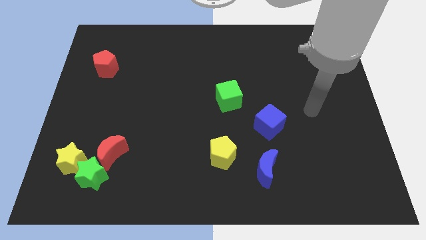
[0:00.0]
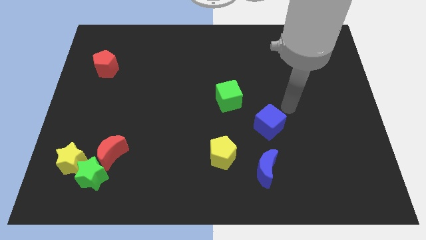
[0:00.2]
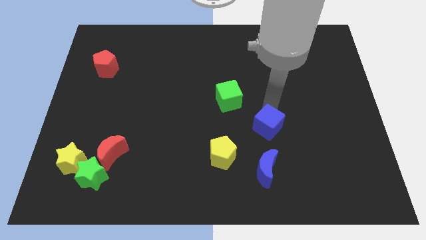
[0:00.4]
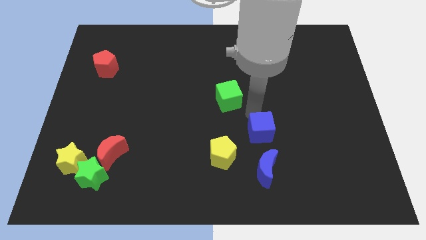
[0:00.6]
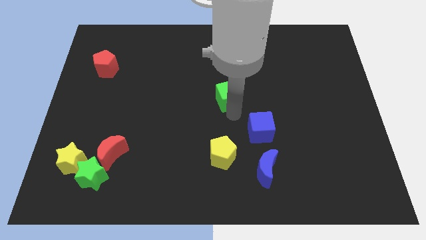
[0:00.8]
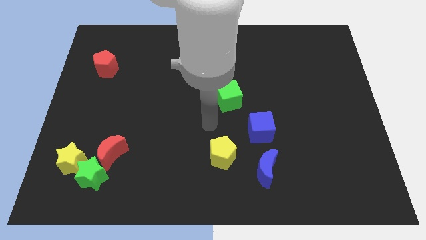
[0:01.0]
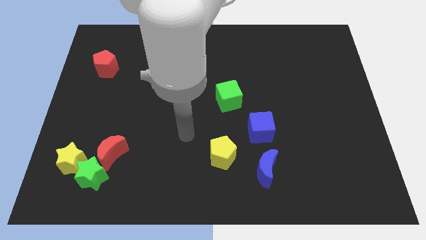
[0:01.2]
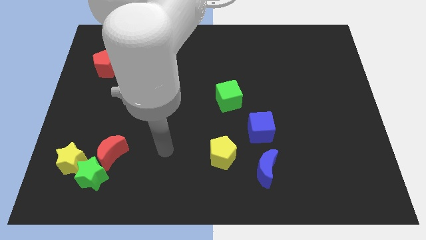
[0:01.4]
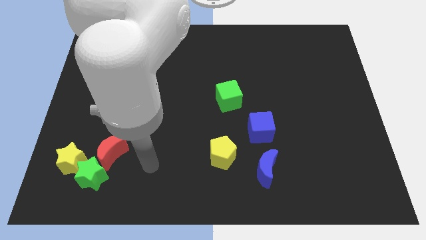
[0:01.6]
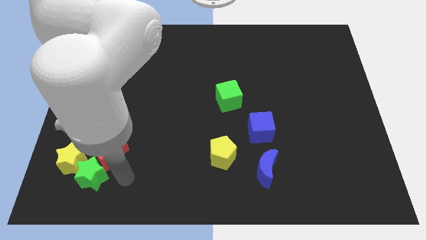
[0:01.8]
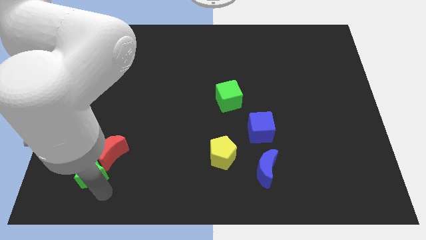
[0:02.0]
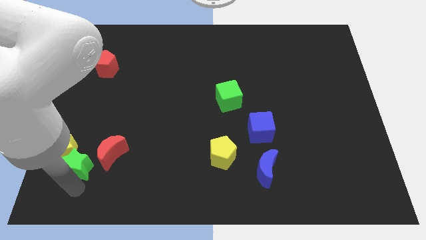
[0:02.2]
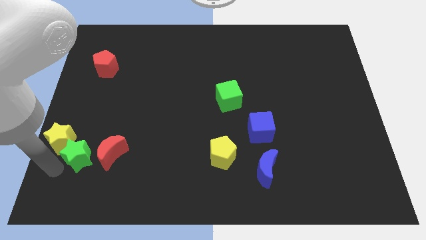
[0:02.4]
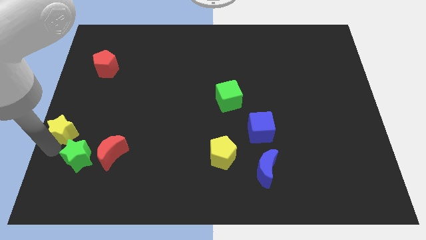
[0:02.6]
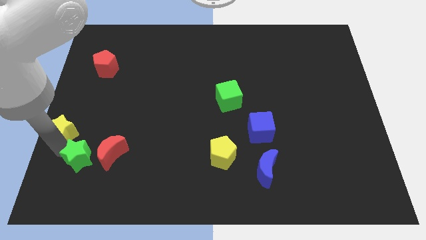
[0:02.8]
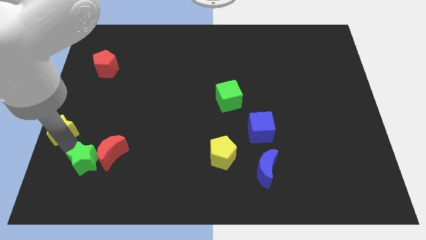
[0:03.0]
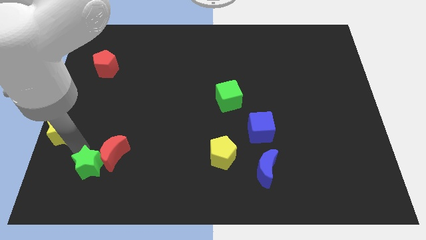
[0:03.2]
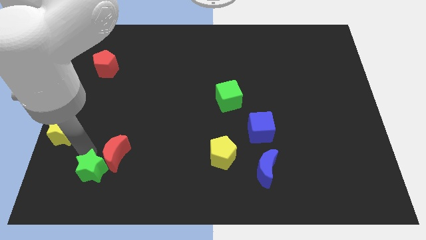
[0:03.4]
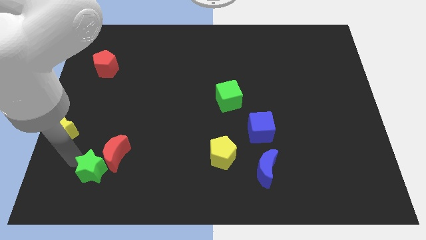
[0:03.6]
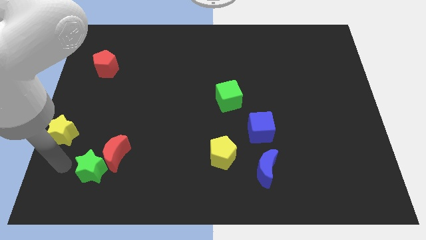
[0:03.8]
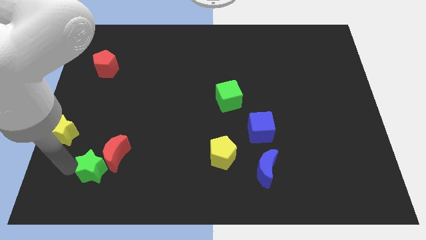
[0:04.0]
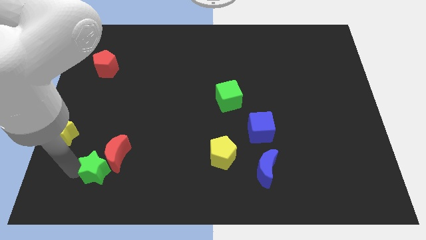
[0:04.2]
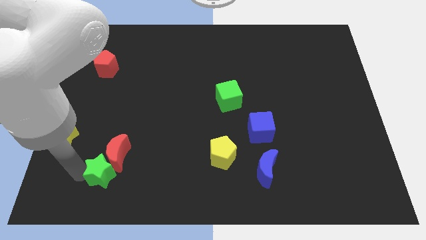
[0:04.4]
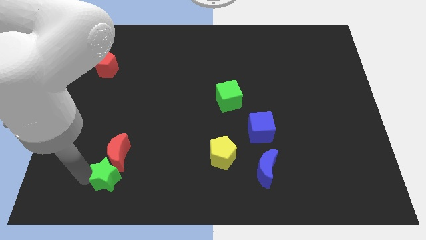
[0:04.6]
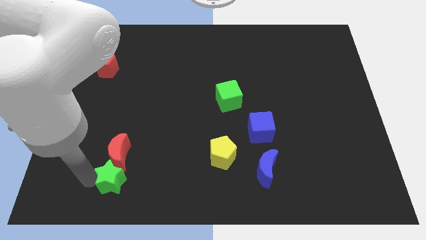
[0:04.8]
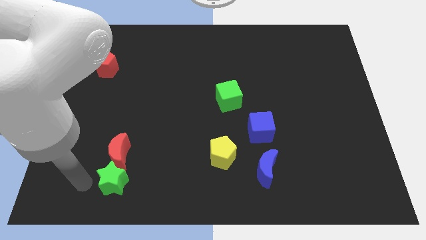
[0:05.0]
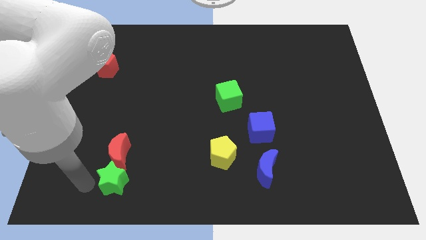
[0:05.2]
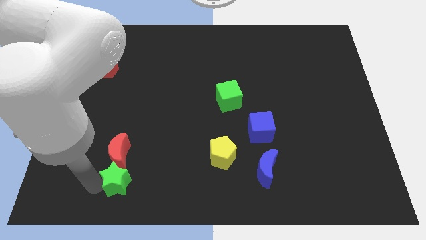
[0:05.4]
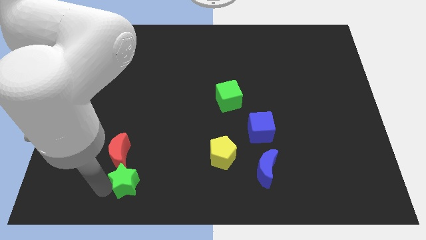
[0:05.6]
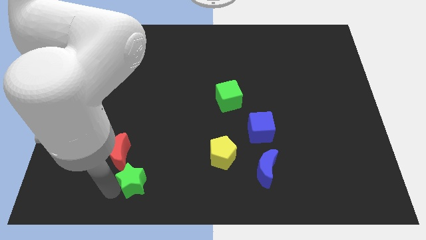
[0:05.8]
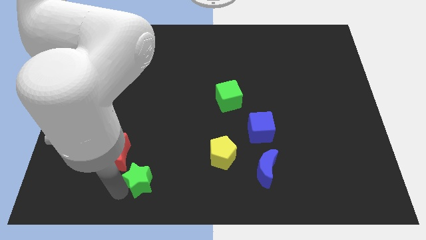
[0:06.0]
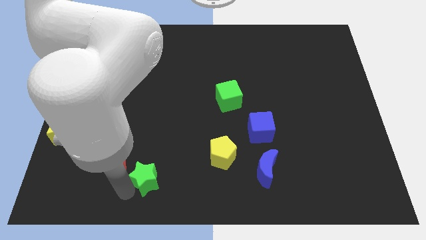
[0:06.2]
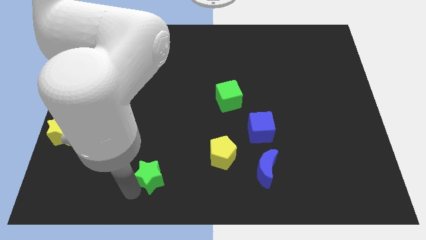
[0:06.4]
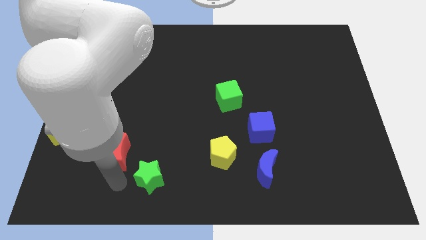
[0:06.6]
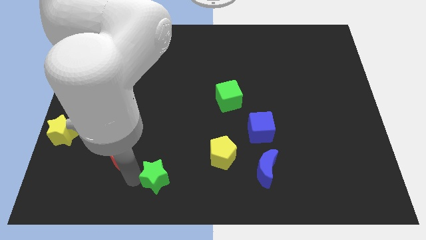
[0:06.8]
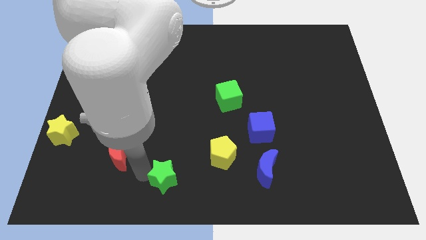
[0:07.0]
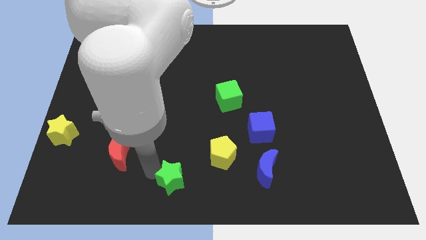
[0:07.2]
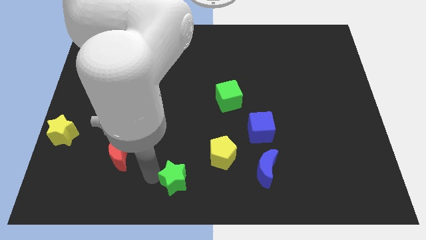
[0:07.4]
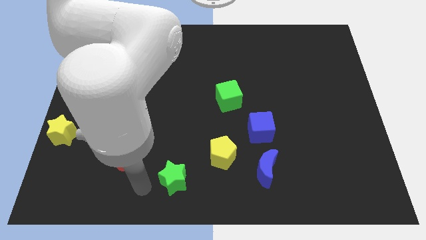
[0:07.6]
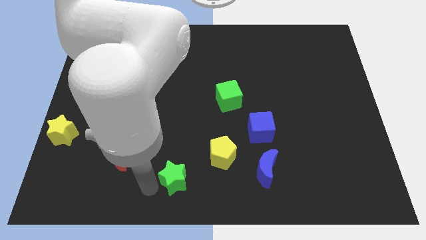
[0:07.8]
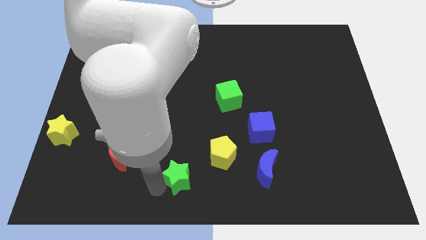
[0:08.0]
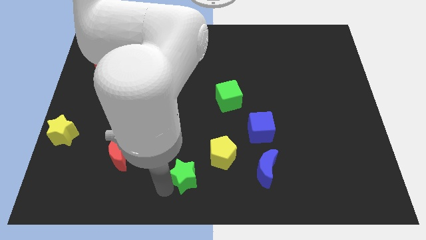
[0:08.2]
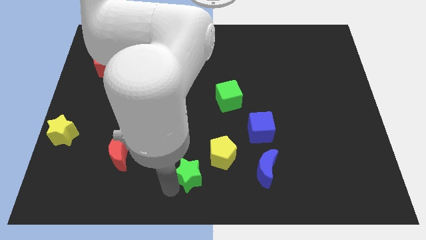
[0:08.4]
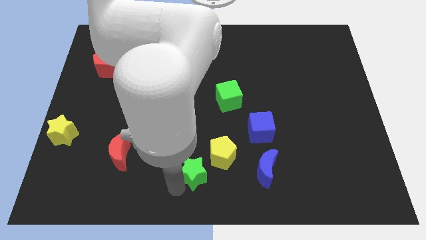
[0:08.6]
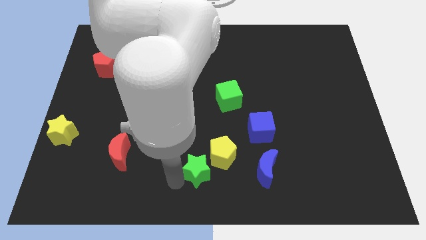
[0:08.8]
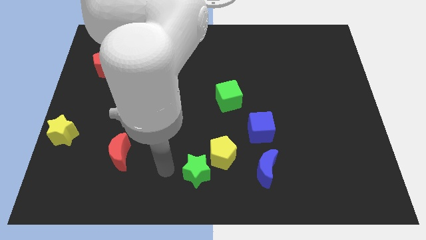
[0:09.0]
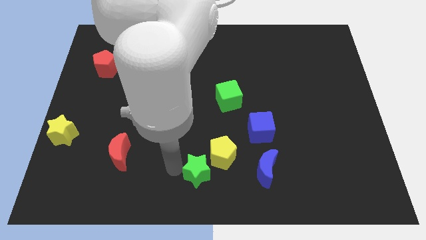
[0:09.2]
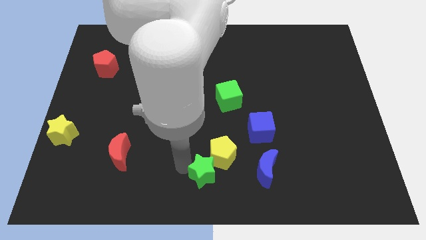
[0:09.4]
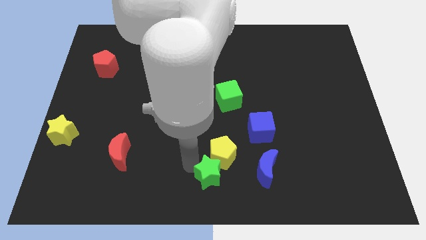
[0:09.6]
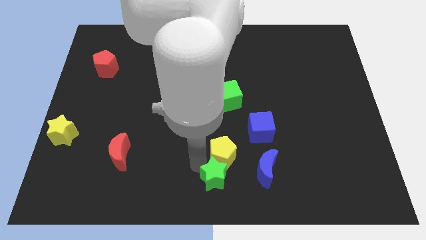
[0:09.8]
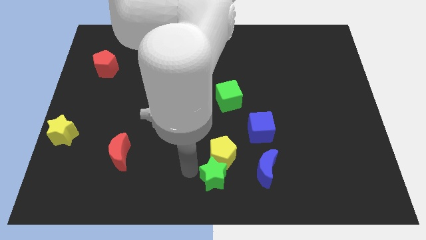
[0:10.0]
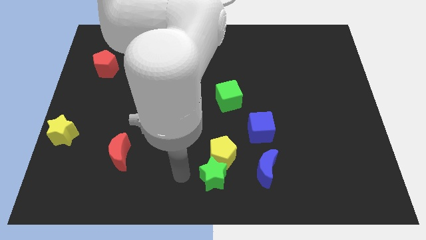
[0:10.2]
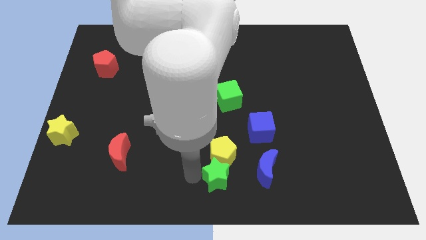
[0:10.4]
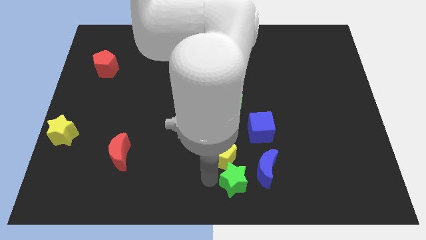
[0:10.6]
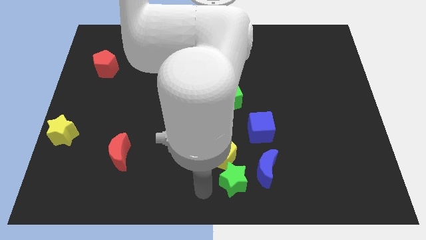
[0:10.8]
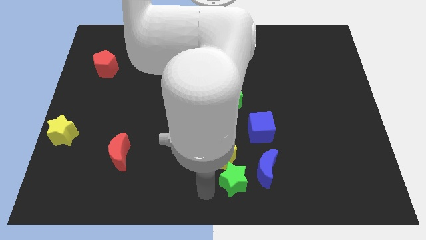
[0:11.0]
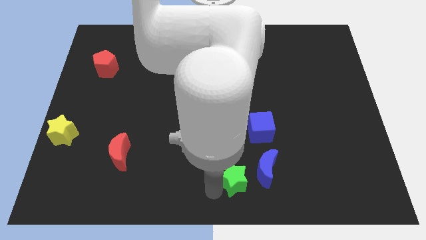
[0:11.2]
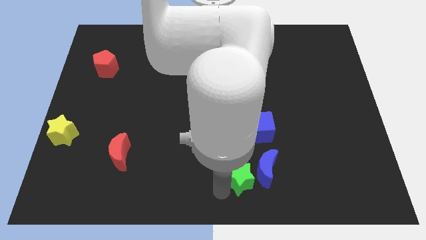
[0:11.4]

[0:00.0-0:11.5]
slide the green star towards the blue moon

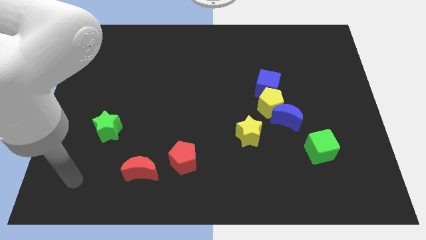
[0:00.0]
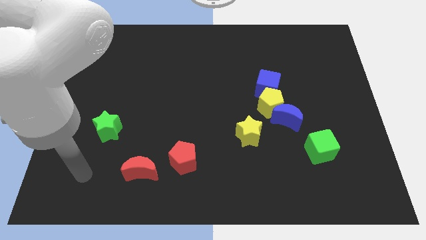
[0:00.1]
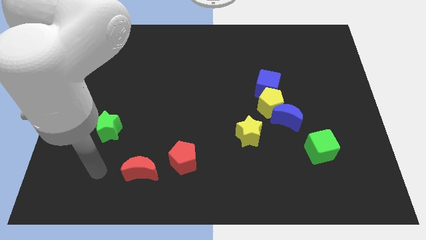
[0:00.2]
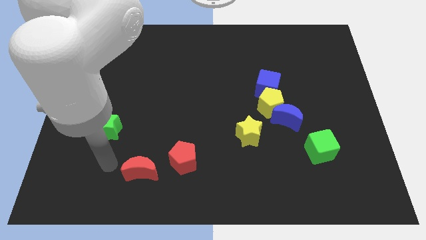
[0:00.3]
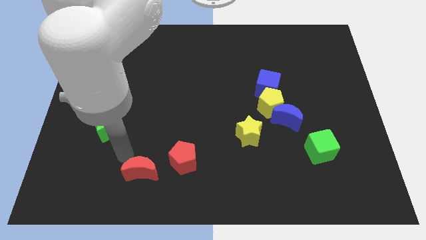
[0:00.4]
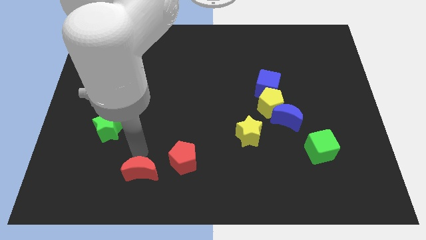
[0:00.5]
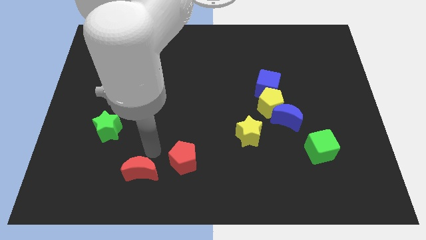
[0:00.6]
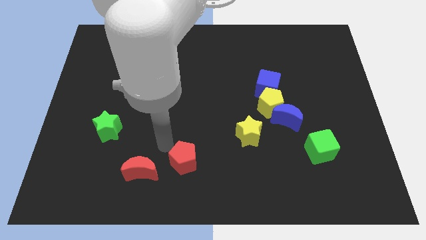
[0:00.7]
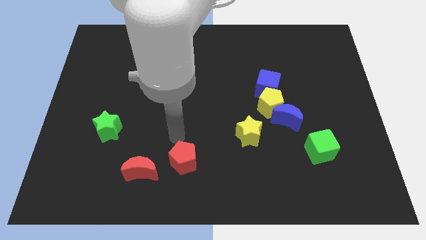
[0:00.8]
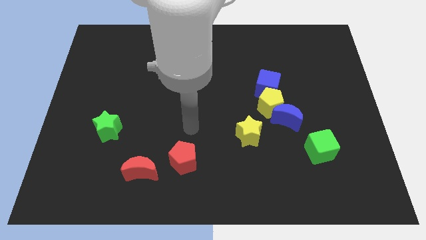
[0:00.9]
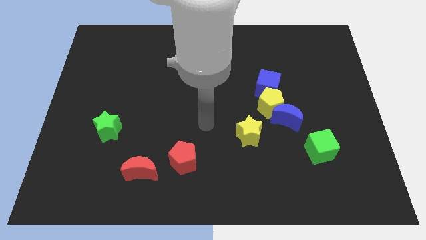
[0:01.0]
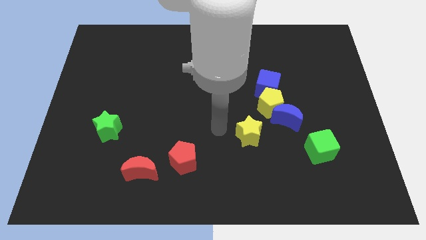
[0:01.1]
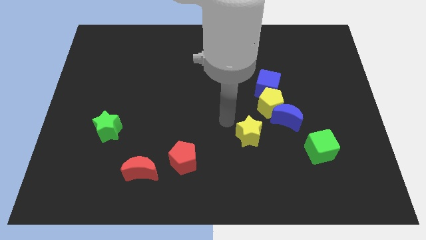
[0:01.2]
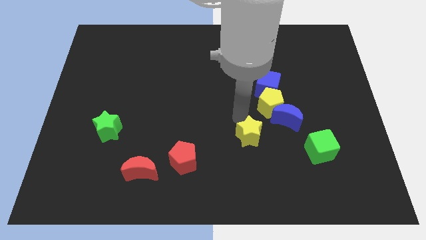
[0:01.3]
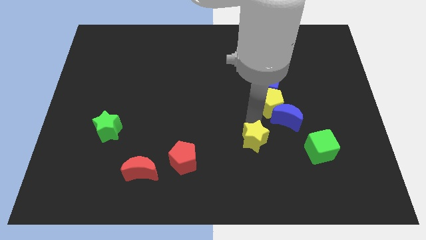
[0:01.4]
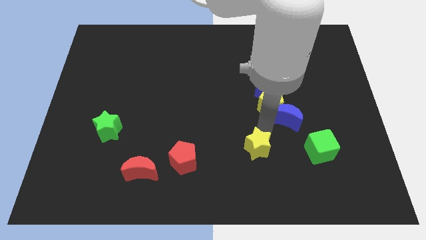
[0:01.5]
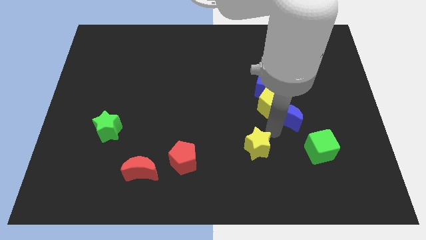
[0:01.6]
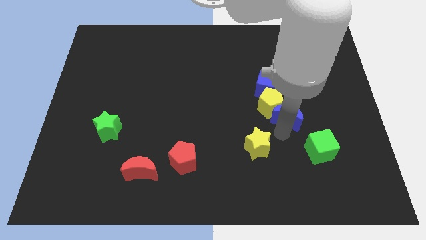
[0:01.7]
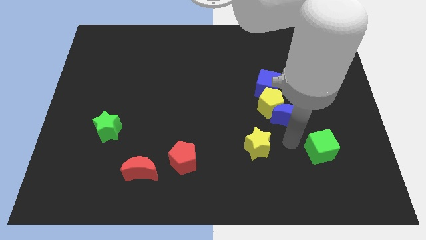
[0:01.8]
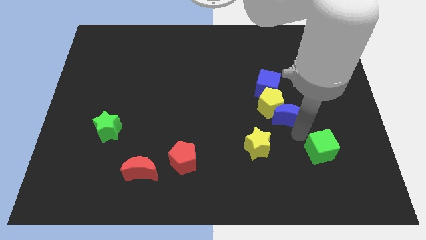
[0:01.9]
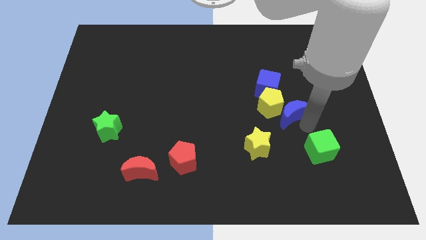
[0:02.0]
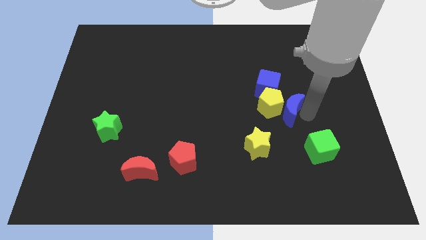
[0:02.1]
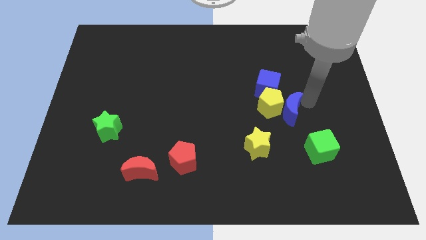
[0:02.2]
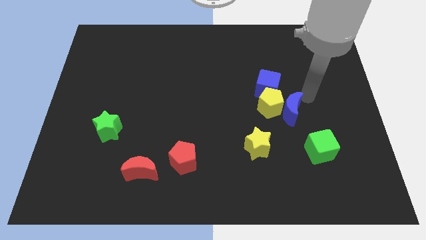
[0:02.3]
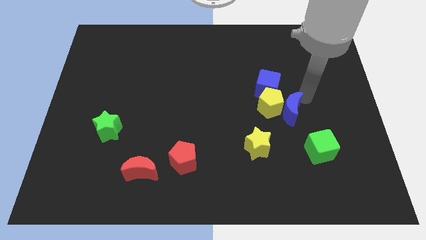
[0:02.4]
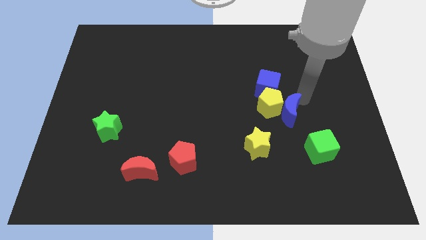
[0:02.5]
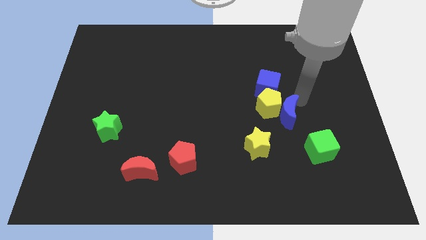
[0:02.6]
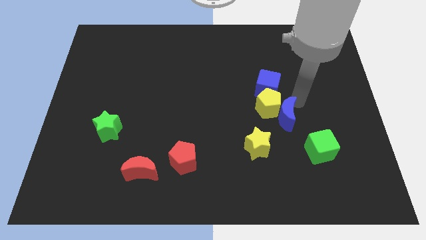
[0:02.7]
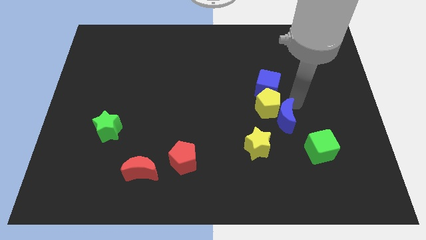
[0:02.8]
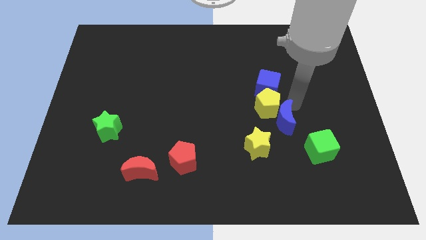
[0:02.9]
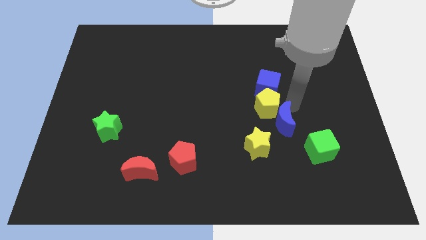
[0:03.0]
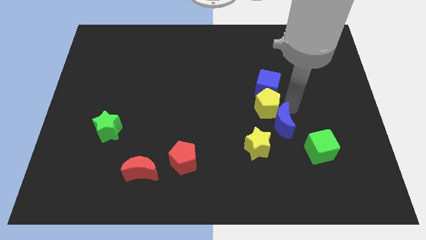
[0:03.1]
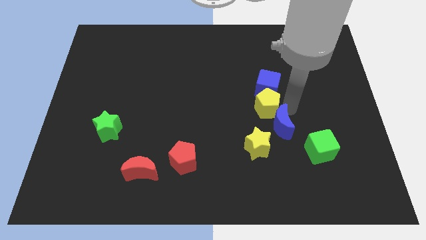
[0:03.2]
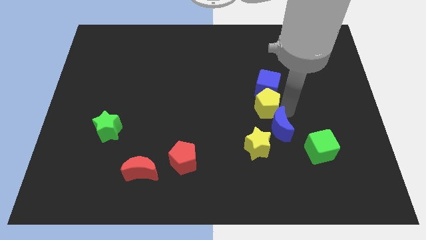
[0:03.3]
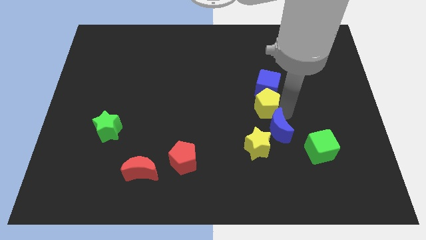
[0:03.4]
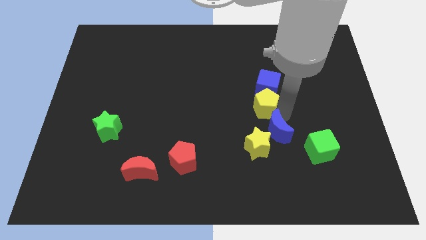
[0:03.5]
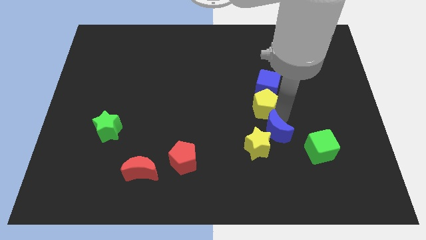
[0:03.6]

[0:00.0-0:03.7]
put the blue moon to the yellow star
